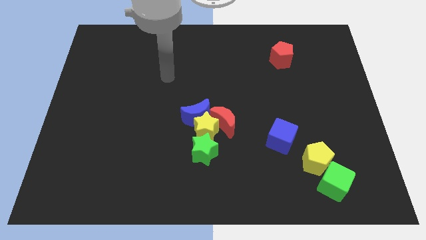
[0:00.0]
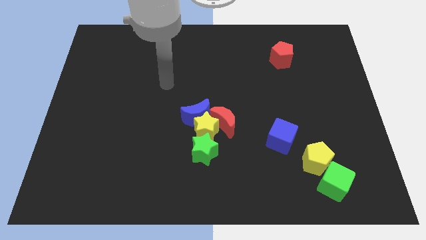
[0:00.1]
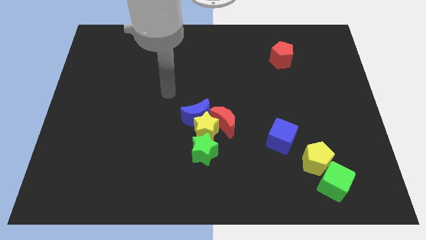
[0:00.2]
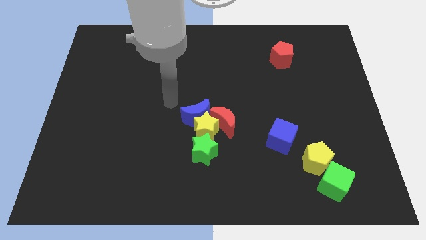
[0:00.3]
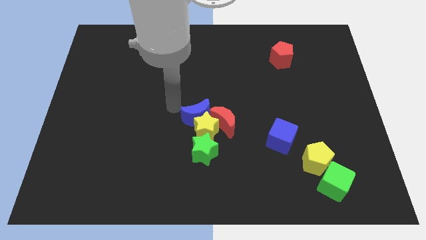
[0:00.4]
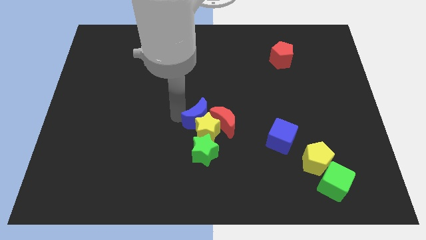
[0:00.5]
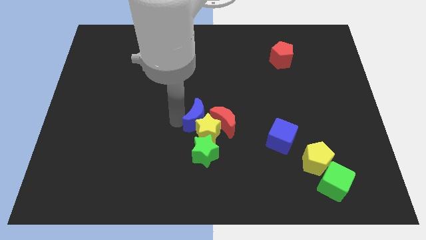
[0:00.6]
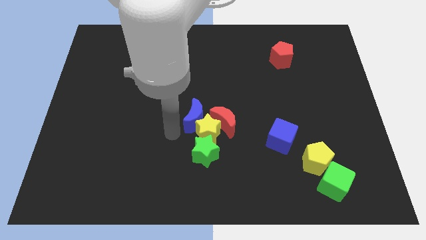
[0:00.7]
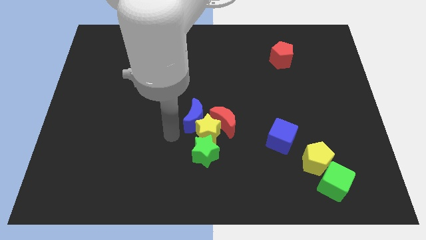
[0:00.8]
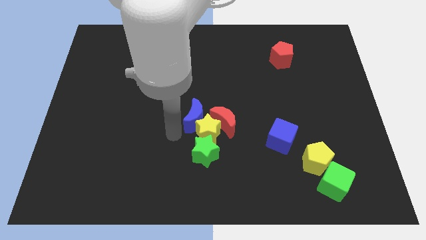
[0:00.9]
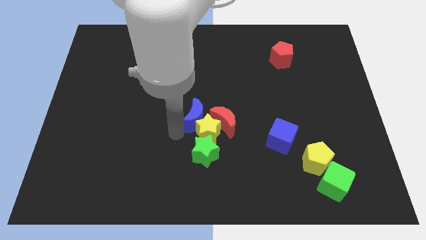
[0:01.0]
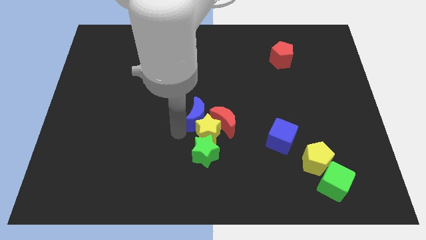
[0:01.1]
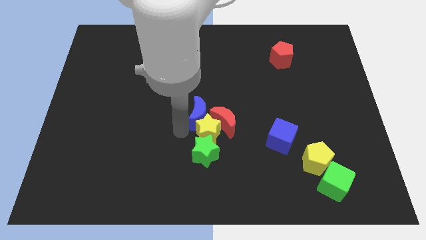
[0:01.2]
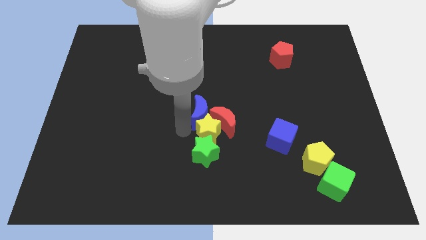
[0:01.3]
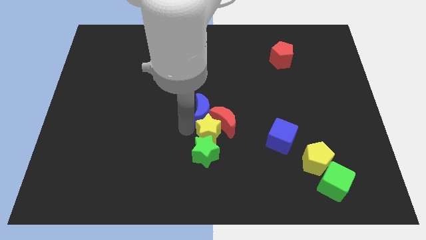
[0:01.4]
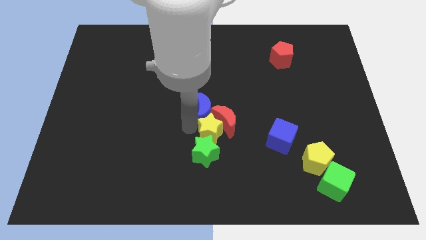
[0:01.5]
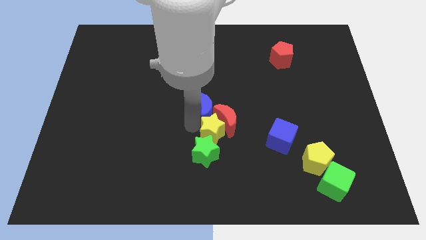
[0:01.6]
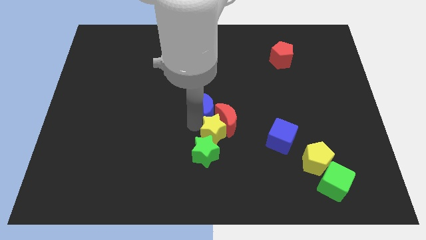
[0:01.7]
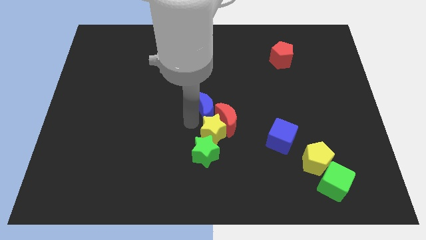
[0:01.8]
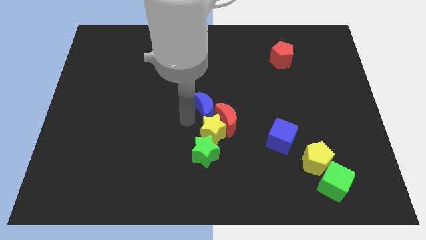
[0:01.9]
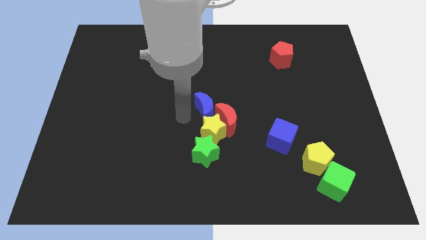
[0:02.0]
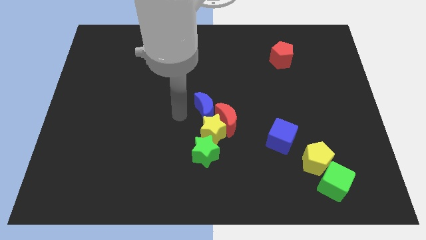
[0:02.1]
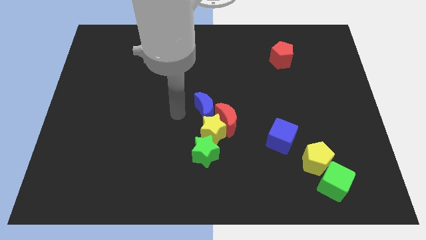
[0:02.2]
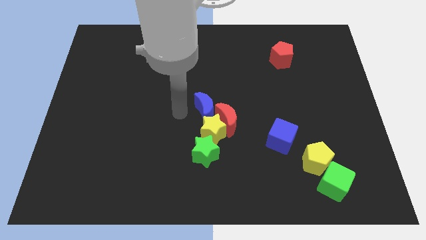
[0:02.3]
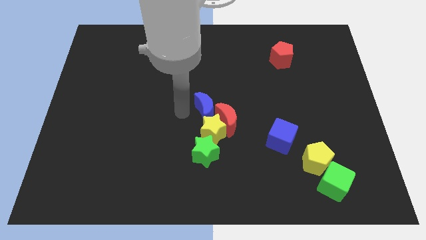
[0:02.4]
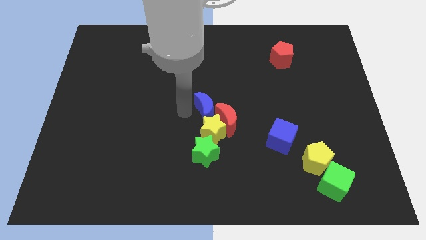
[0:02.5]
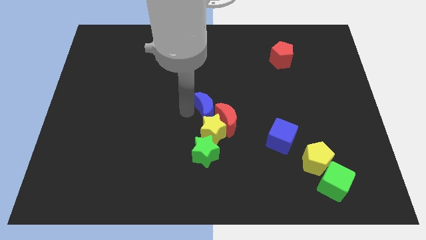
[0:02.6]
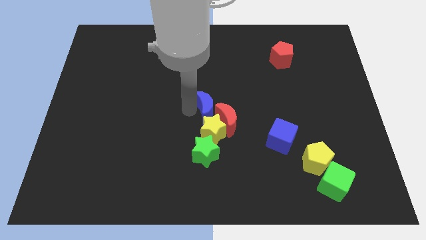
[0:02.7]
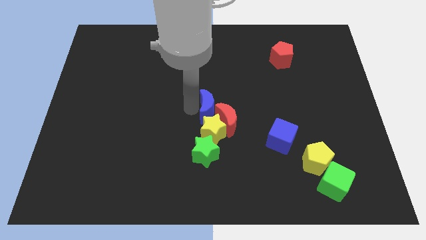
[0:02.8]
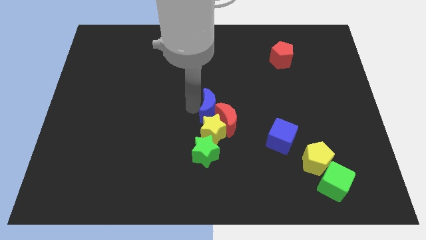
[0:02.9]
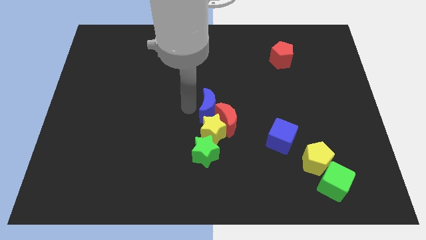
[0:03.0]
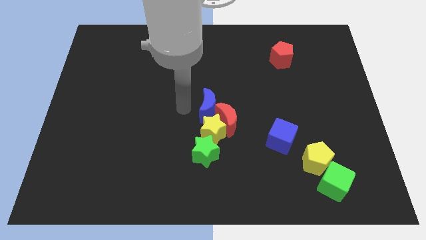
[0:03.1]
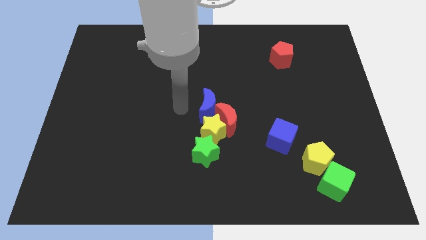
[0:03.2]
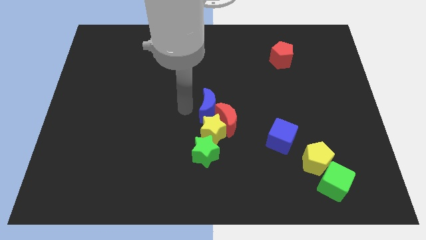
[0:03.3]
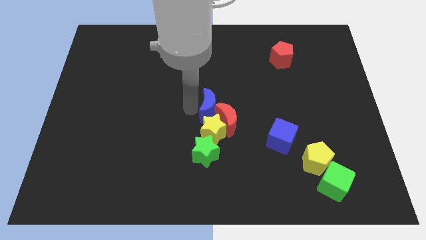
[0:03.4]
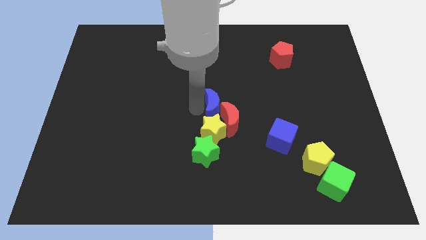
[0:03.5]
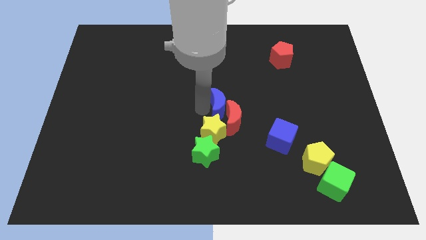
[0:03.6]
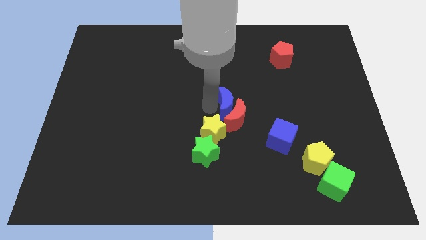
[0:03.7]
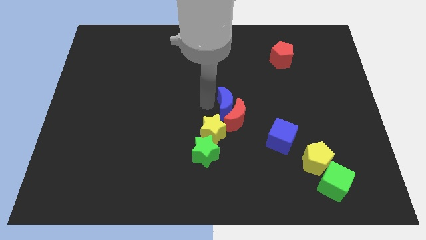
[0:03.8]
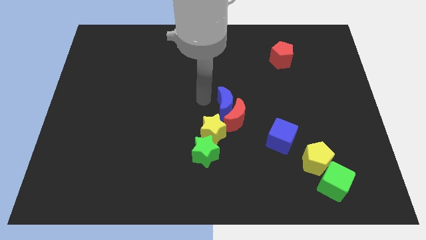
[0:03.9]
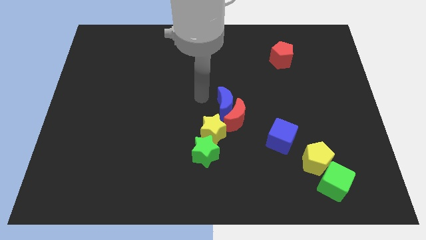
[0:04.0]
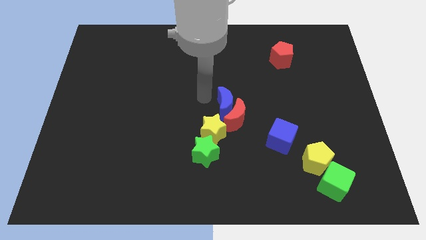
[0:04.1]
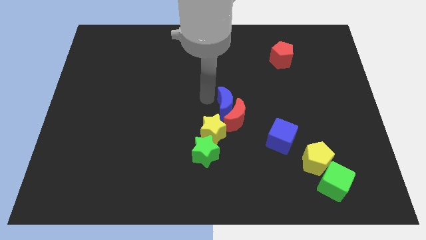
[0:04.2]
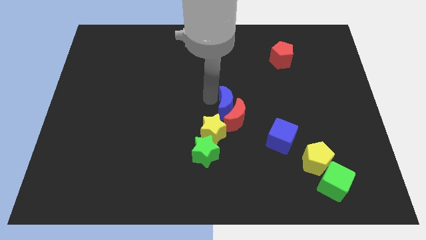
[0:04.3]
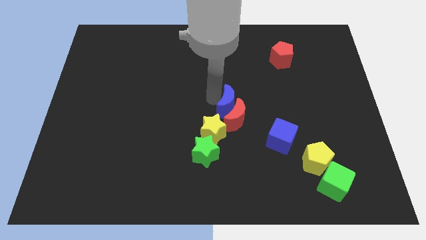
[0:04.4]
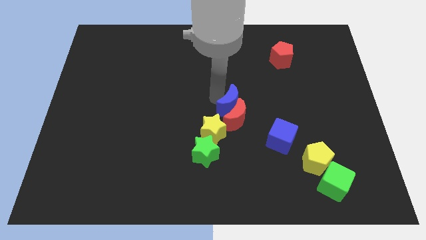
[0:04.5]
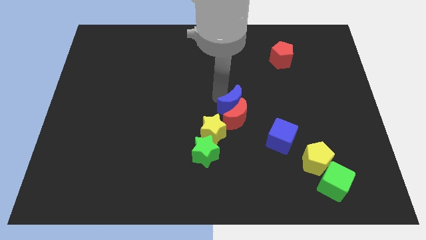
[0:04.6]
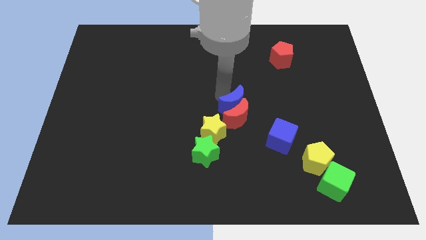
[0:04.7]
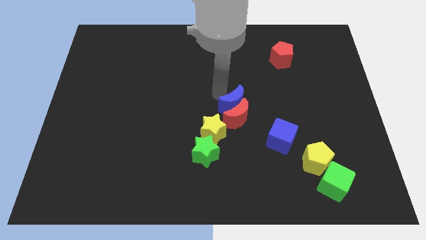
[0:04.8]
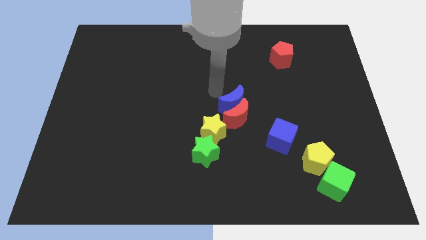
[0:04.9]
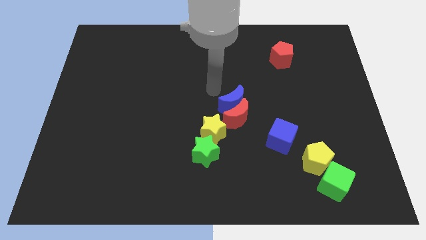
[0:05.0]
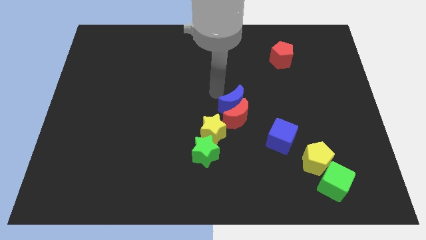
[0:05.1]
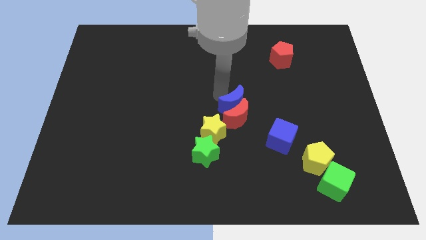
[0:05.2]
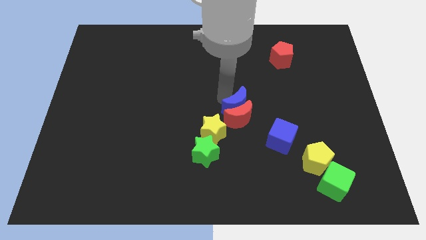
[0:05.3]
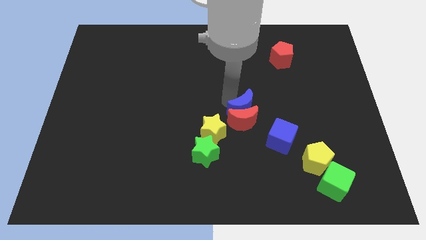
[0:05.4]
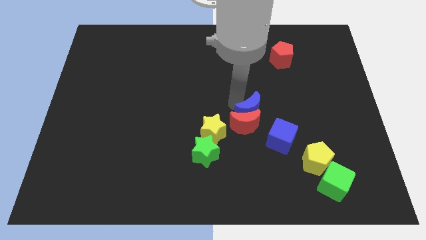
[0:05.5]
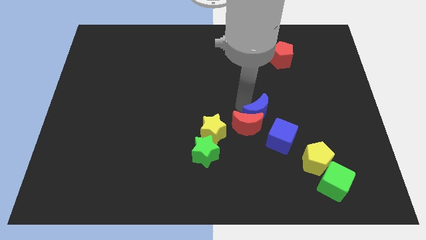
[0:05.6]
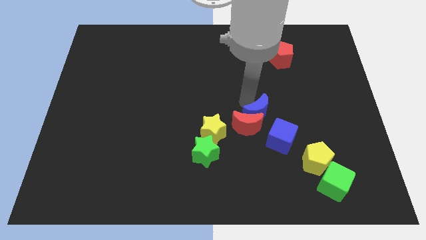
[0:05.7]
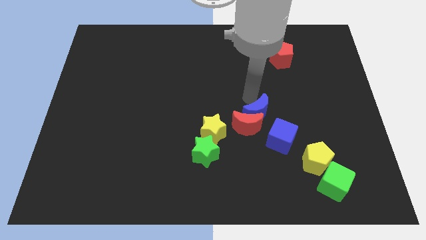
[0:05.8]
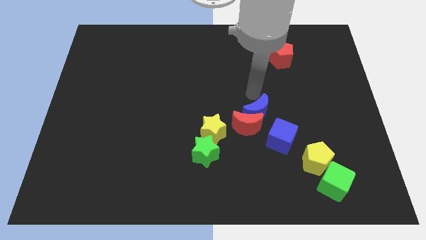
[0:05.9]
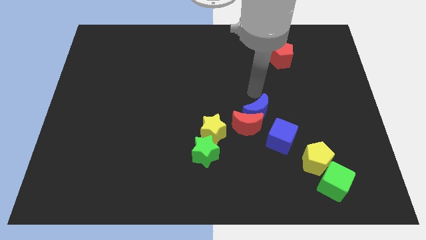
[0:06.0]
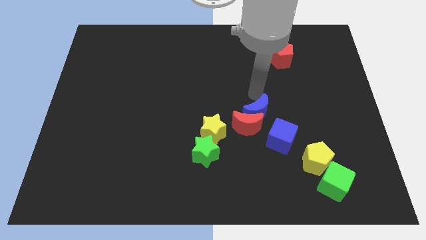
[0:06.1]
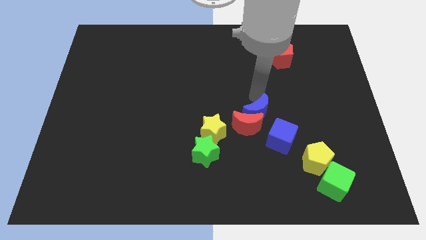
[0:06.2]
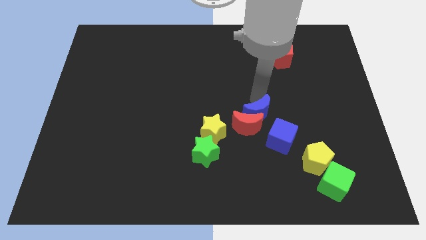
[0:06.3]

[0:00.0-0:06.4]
put the blue moon to the right side of the yellow star

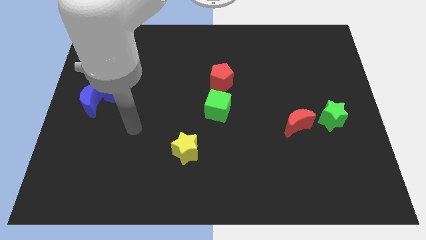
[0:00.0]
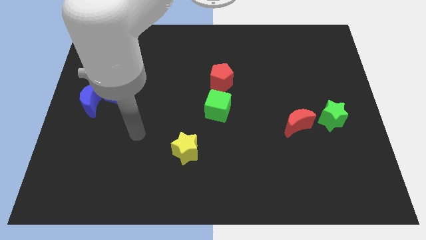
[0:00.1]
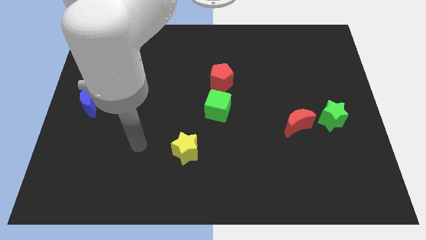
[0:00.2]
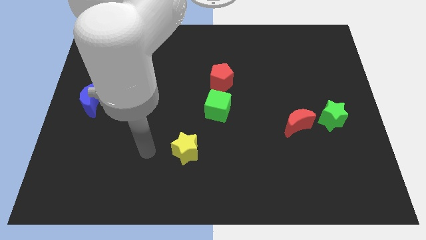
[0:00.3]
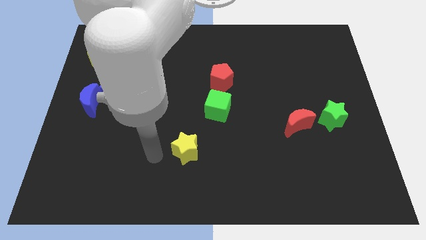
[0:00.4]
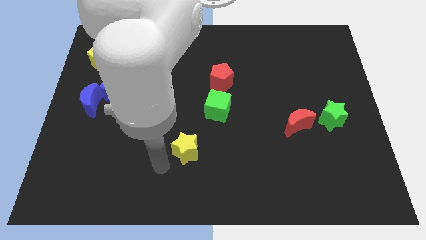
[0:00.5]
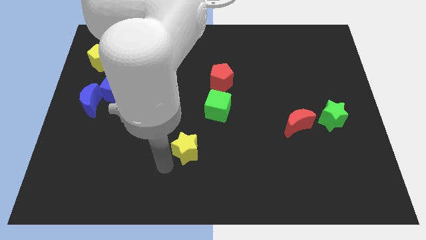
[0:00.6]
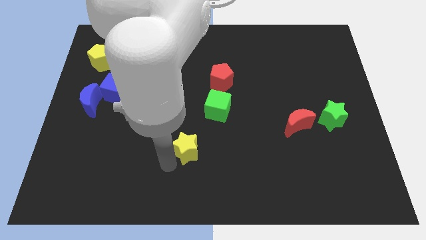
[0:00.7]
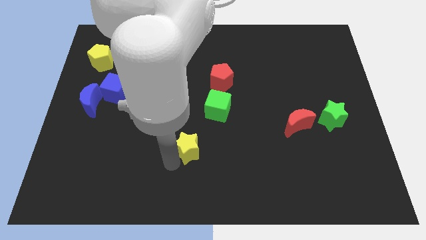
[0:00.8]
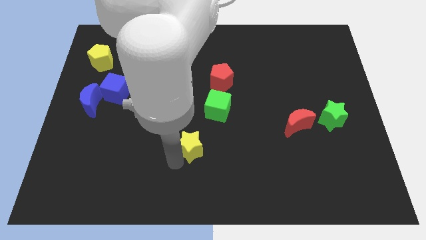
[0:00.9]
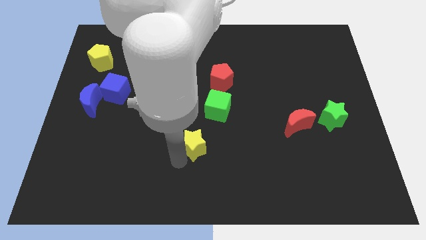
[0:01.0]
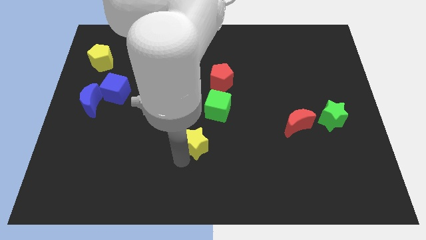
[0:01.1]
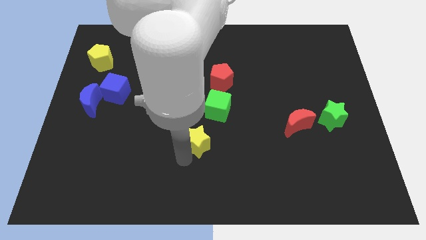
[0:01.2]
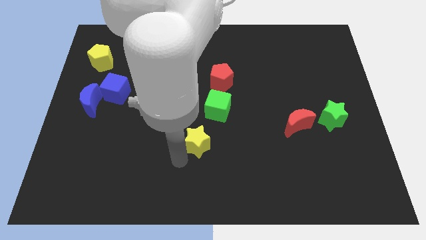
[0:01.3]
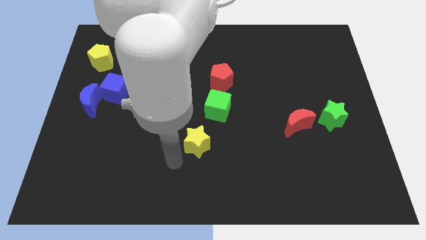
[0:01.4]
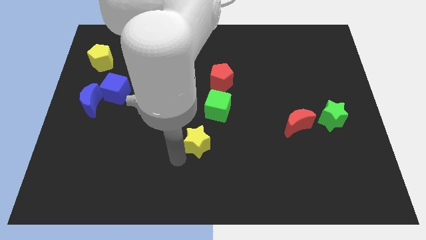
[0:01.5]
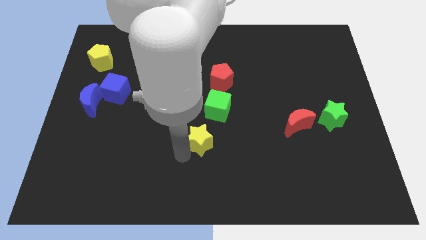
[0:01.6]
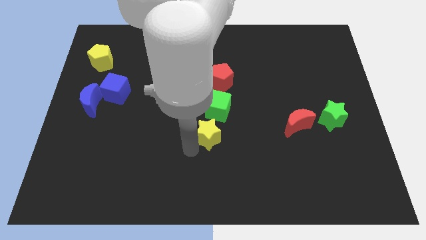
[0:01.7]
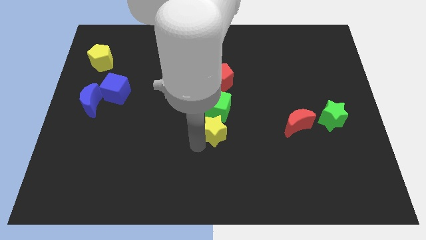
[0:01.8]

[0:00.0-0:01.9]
push the yellow star below the red pentagon
